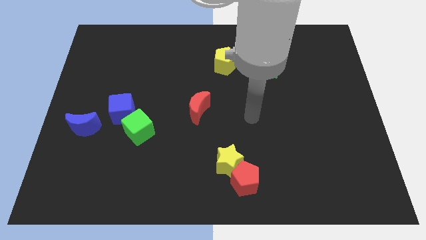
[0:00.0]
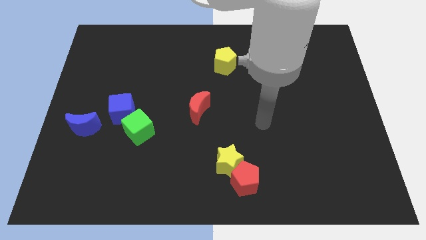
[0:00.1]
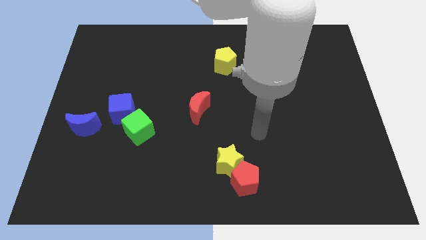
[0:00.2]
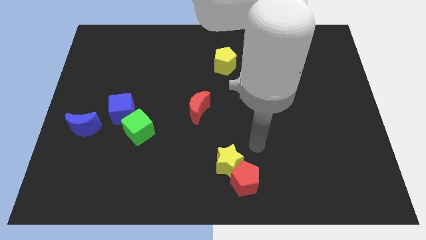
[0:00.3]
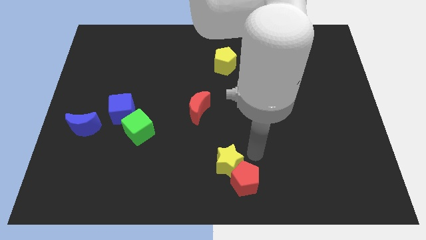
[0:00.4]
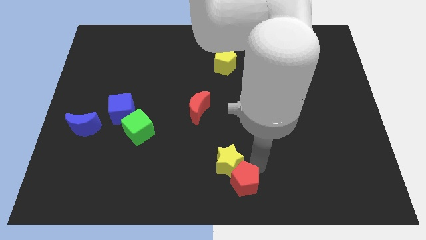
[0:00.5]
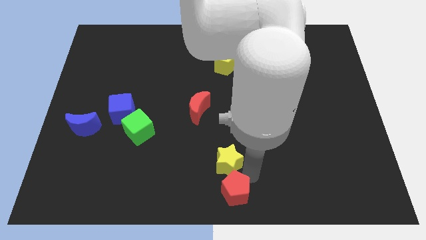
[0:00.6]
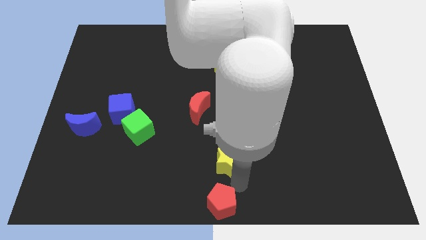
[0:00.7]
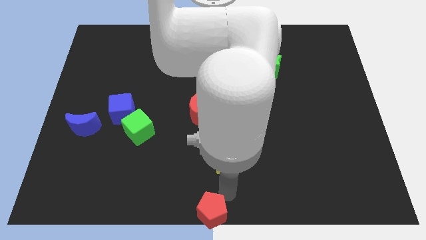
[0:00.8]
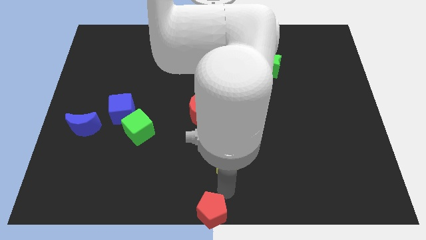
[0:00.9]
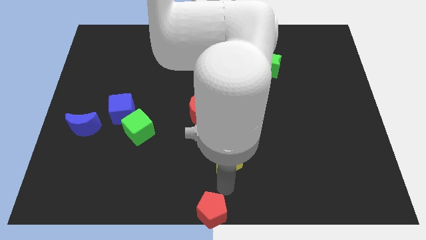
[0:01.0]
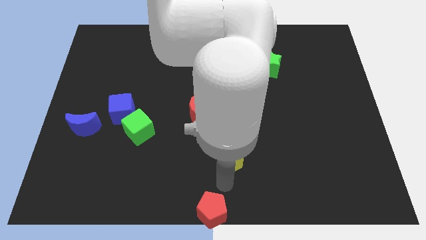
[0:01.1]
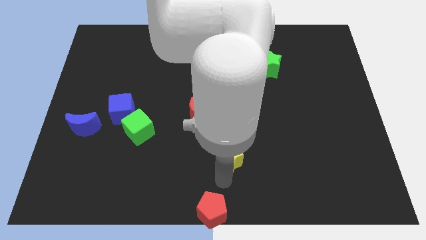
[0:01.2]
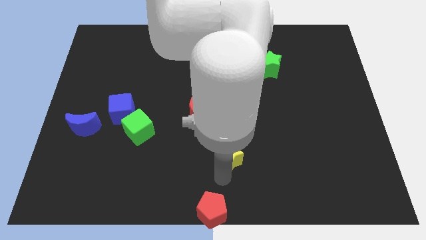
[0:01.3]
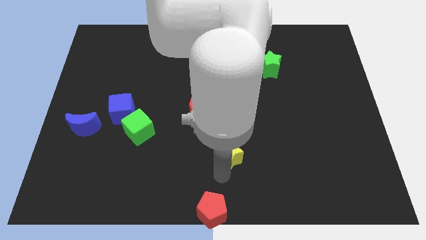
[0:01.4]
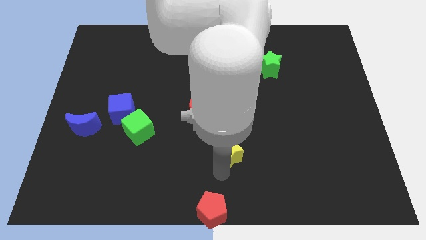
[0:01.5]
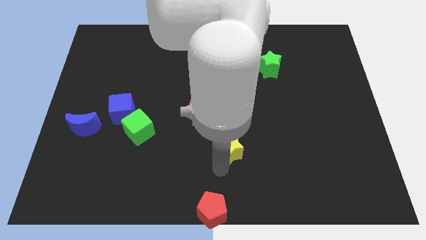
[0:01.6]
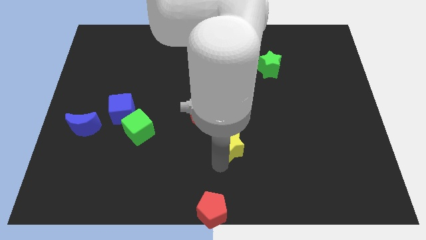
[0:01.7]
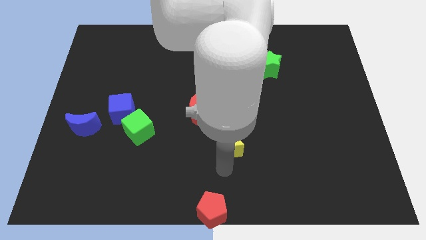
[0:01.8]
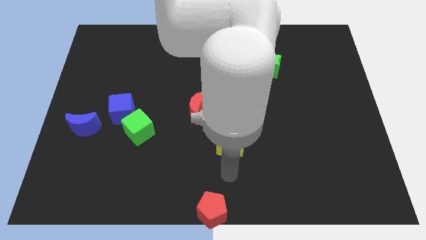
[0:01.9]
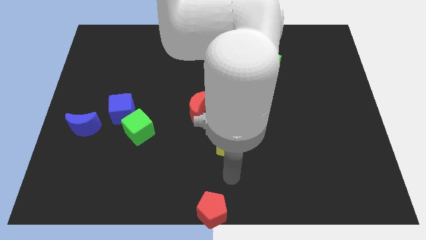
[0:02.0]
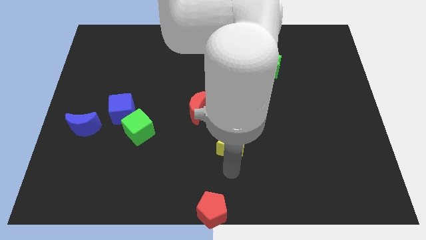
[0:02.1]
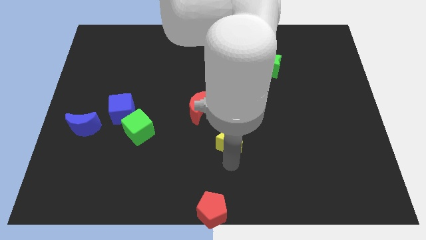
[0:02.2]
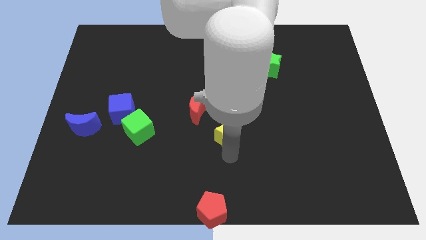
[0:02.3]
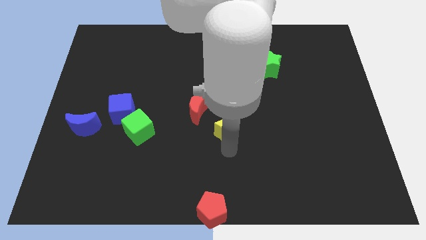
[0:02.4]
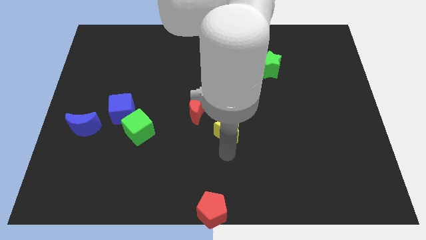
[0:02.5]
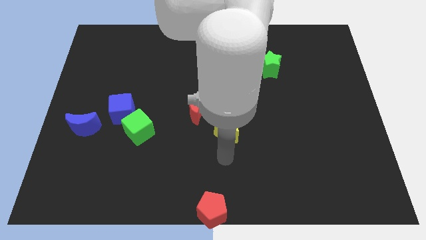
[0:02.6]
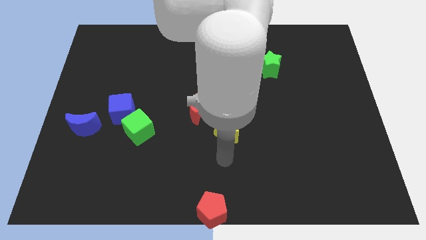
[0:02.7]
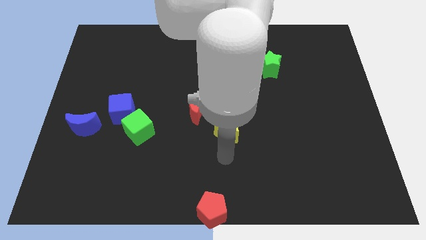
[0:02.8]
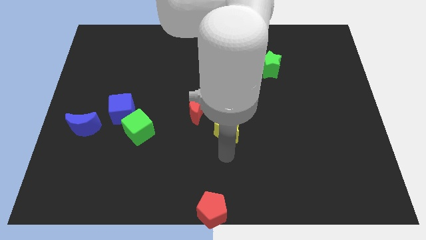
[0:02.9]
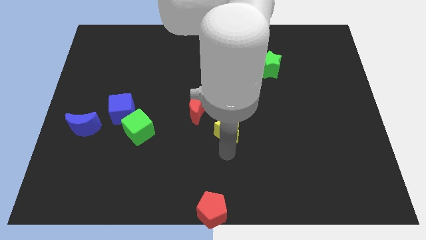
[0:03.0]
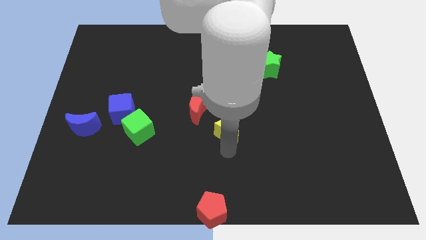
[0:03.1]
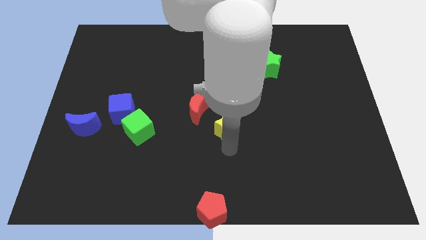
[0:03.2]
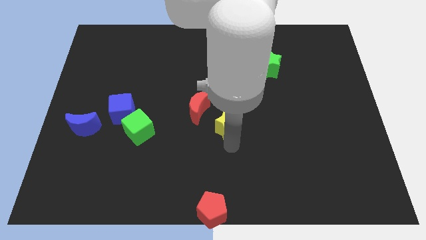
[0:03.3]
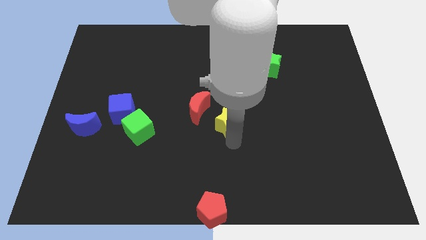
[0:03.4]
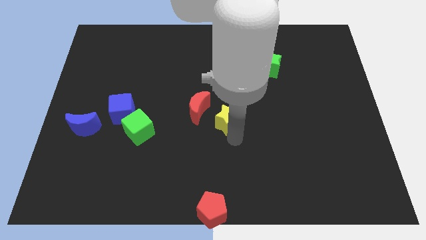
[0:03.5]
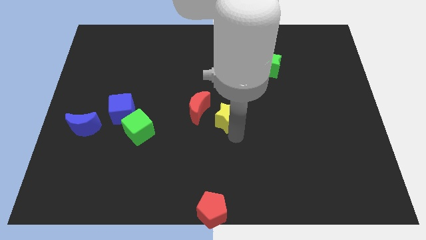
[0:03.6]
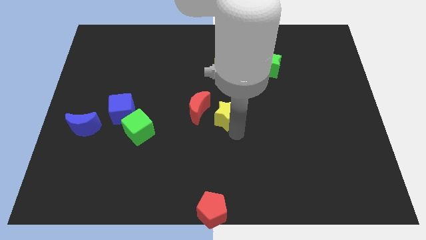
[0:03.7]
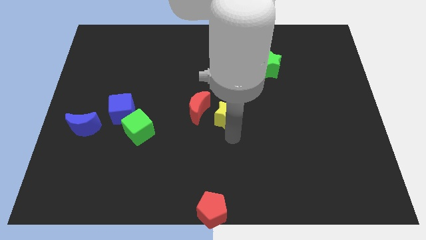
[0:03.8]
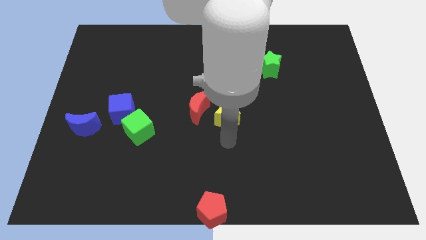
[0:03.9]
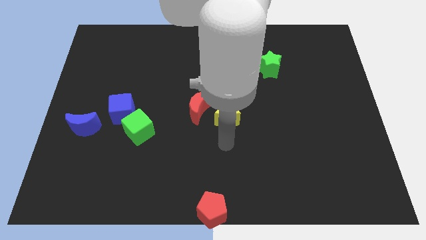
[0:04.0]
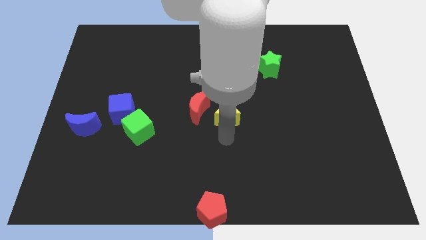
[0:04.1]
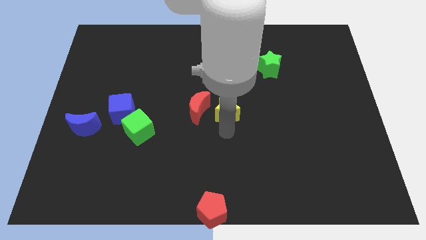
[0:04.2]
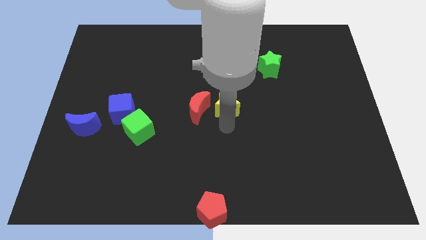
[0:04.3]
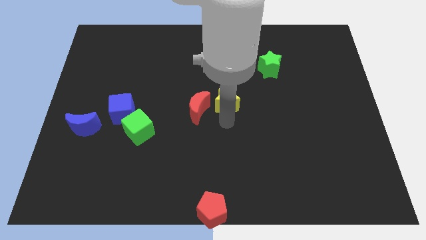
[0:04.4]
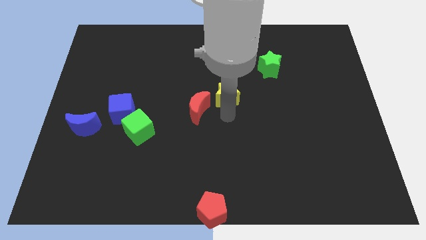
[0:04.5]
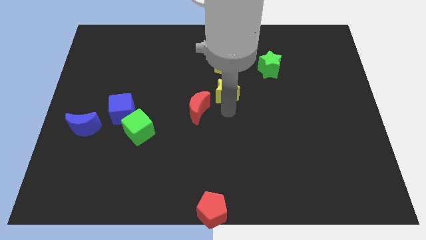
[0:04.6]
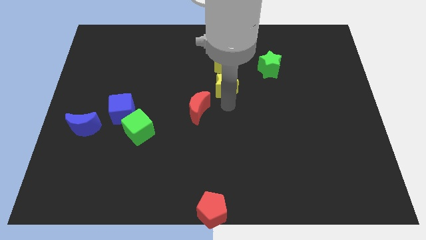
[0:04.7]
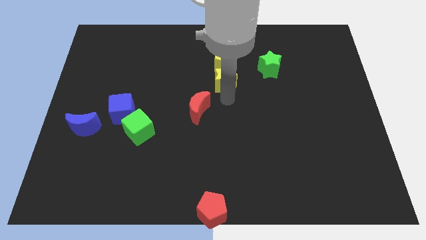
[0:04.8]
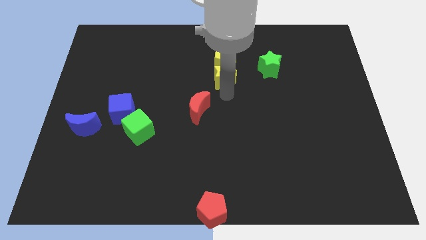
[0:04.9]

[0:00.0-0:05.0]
move the yellow star towards the yellow pentagon

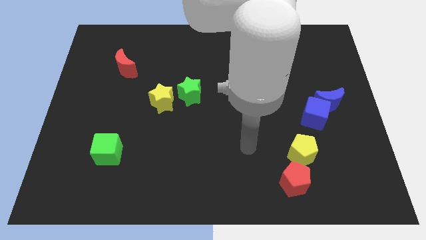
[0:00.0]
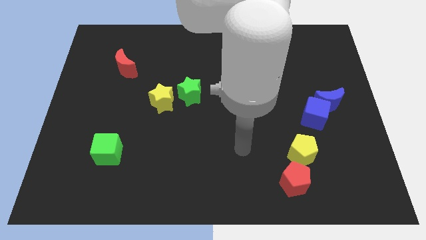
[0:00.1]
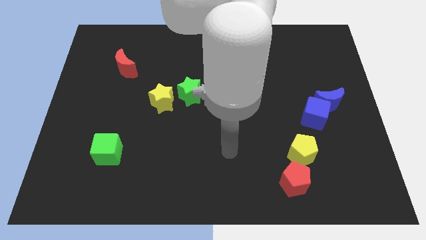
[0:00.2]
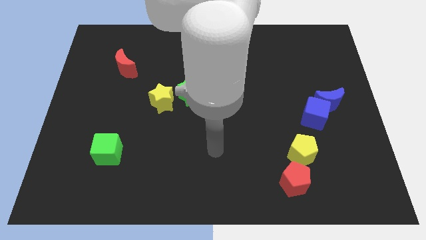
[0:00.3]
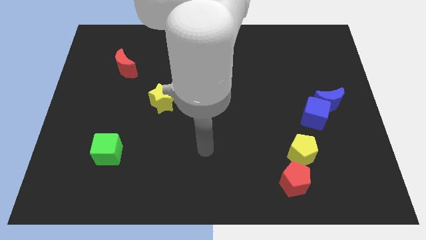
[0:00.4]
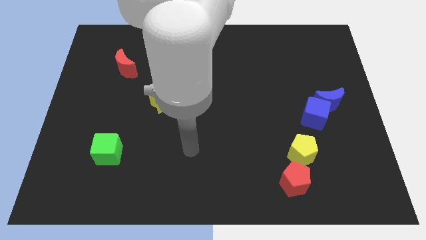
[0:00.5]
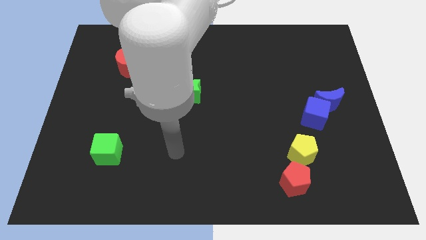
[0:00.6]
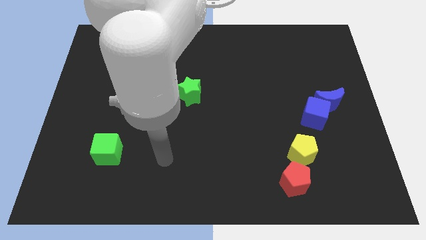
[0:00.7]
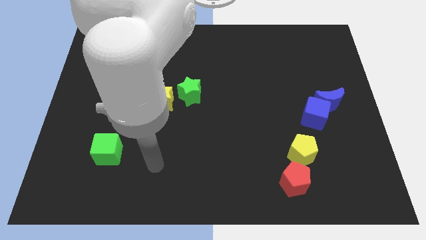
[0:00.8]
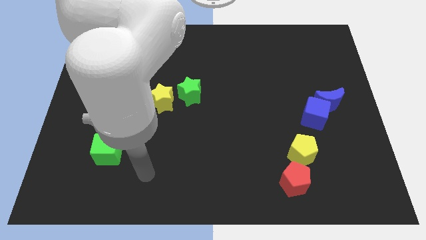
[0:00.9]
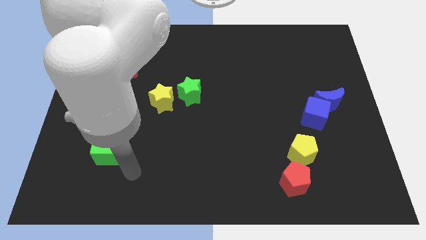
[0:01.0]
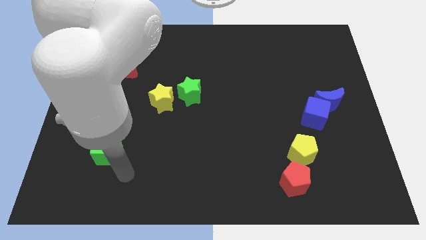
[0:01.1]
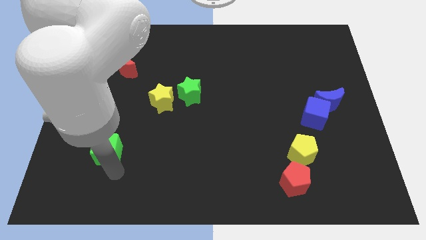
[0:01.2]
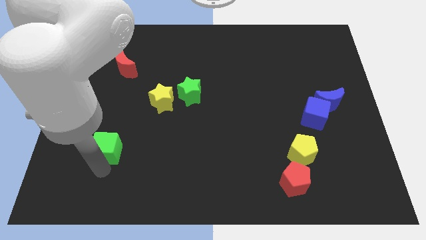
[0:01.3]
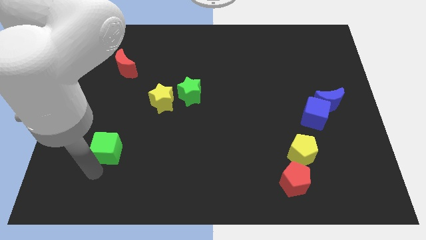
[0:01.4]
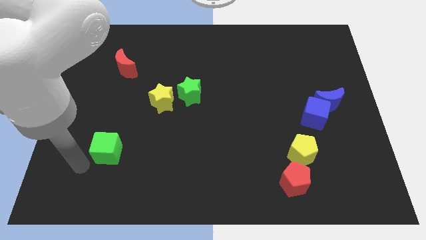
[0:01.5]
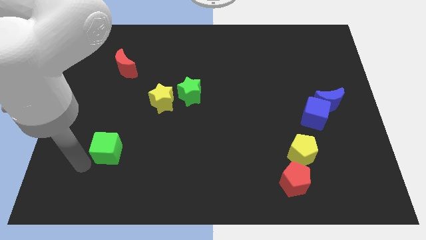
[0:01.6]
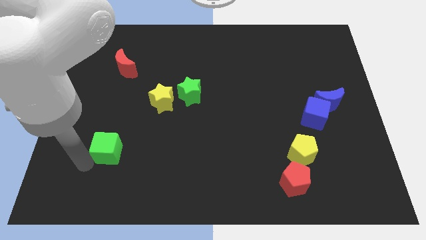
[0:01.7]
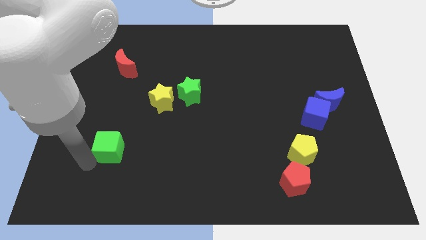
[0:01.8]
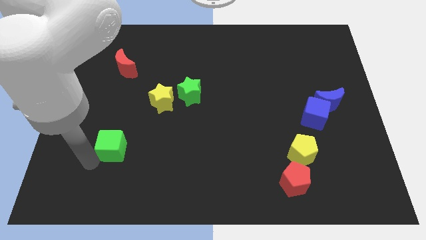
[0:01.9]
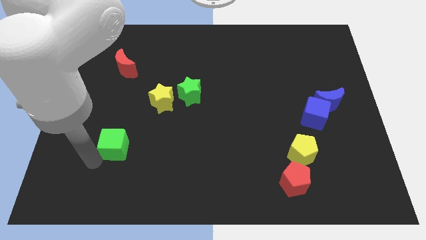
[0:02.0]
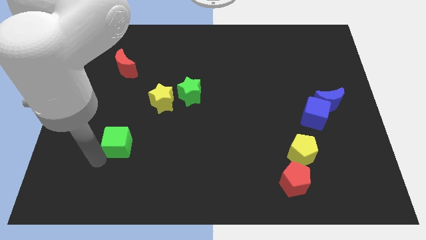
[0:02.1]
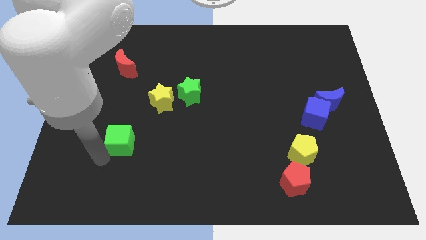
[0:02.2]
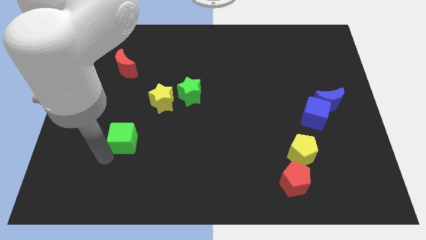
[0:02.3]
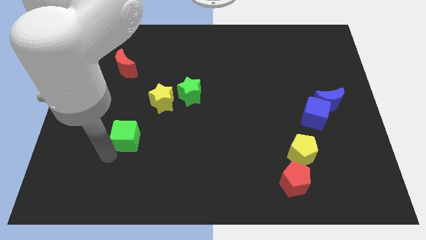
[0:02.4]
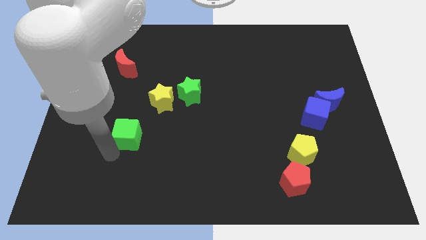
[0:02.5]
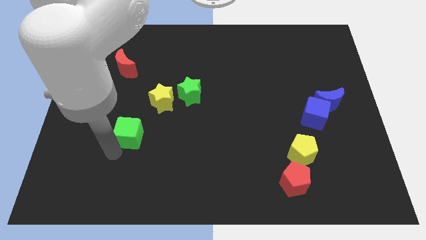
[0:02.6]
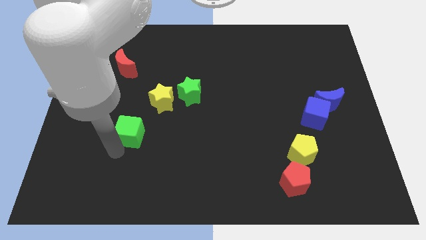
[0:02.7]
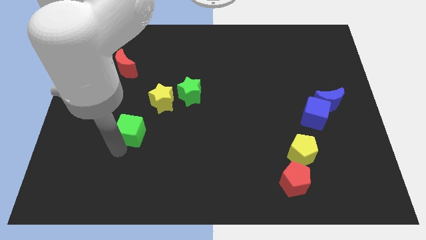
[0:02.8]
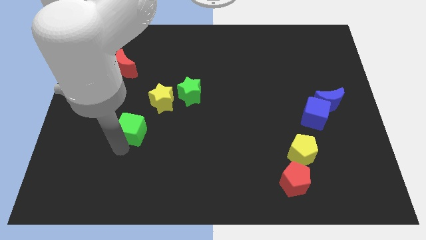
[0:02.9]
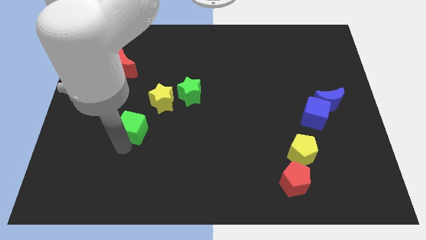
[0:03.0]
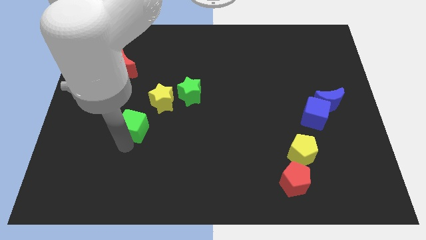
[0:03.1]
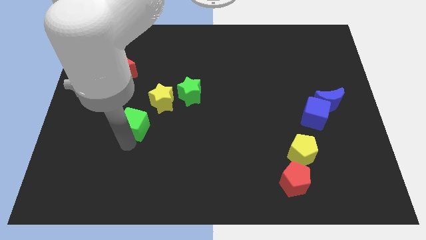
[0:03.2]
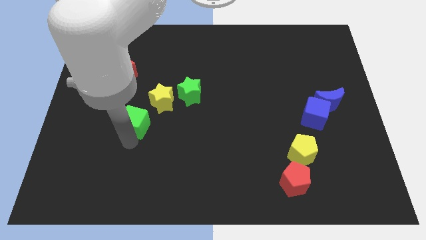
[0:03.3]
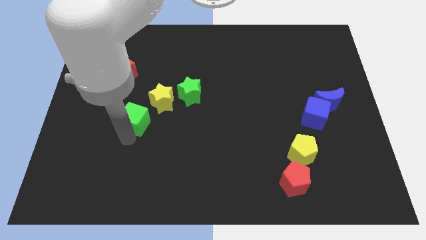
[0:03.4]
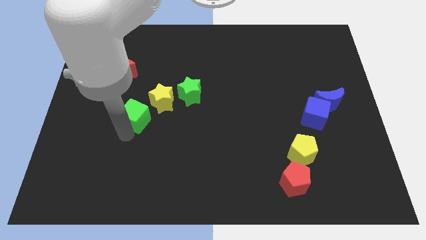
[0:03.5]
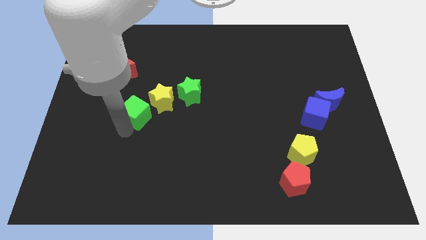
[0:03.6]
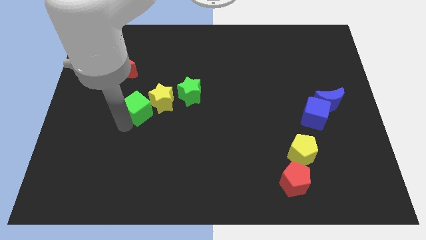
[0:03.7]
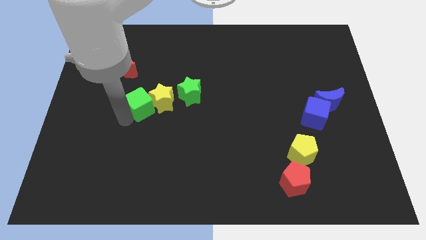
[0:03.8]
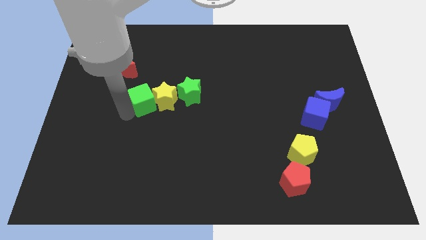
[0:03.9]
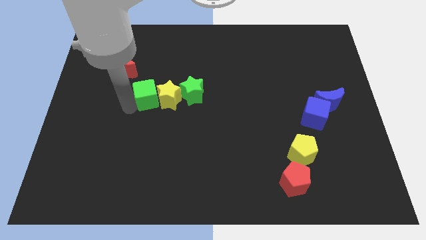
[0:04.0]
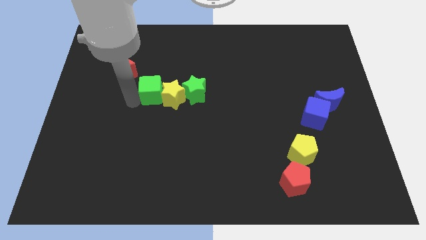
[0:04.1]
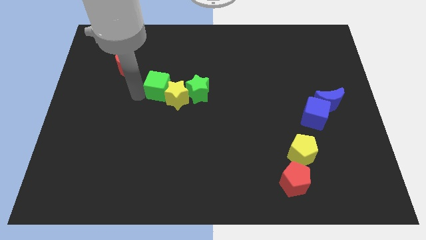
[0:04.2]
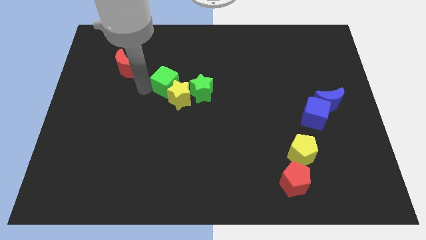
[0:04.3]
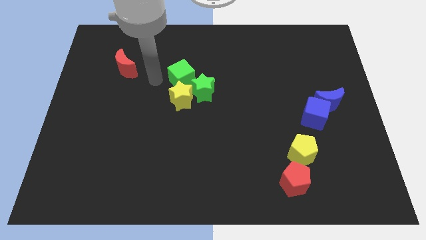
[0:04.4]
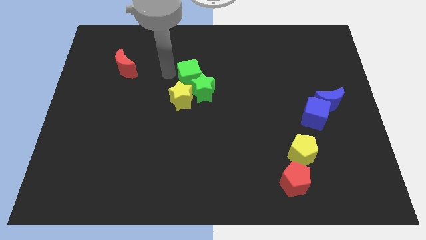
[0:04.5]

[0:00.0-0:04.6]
push the green cube next to the green star
